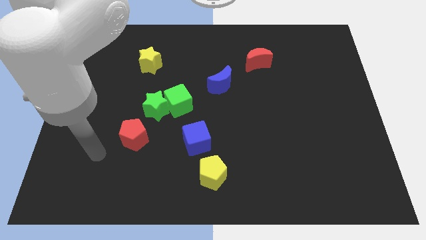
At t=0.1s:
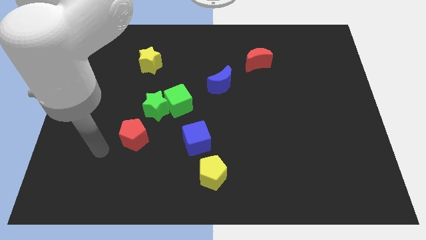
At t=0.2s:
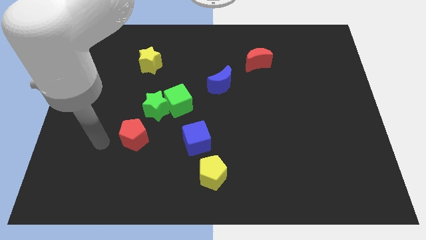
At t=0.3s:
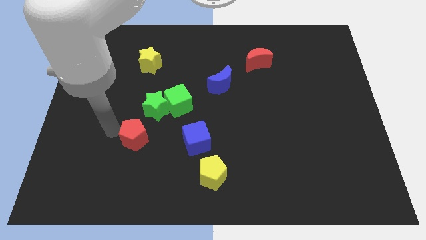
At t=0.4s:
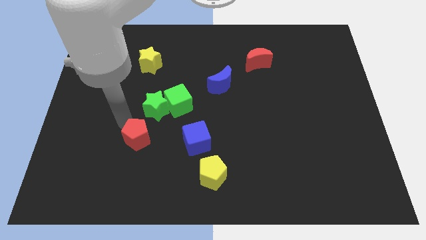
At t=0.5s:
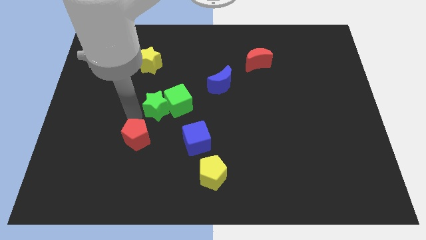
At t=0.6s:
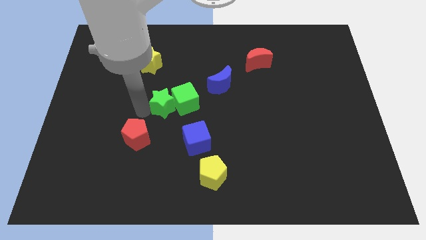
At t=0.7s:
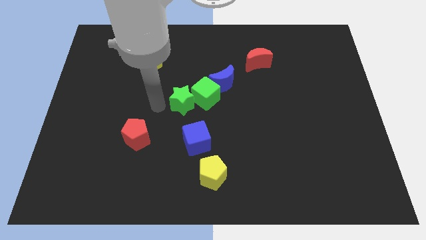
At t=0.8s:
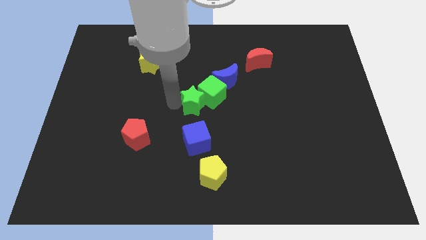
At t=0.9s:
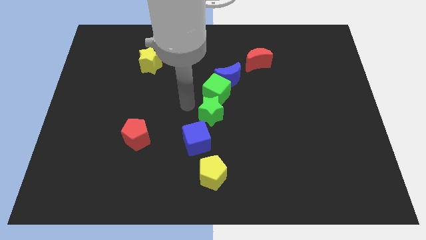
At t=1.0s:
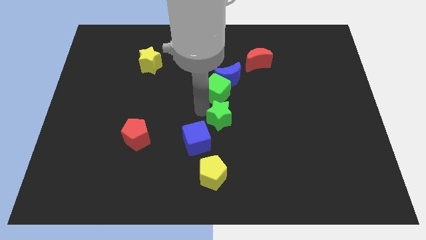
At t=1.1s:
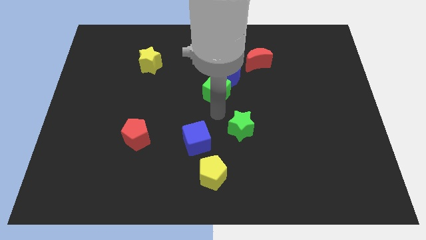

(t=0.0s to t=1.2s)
separate the green cube from the green star

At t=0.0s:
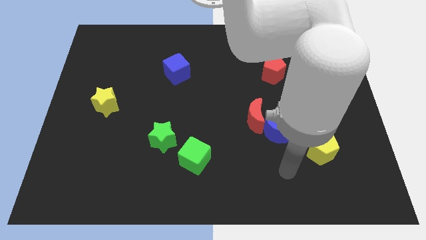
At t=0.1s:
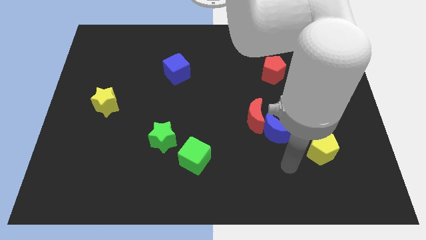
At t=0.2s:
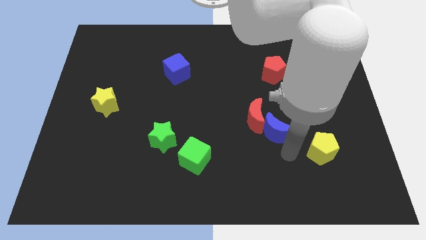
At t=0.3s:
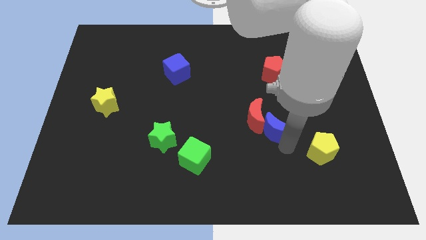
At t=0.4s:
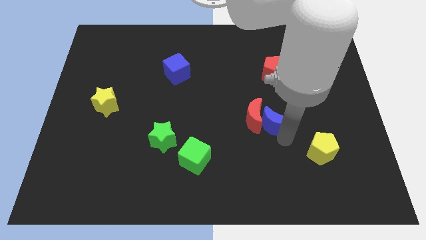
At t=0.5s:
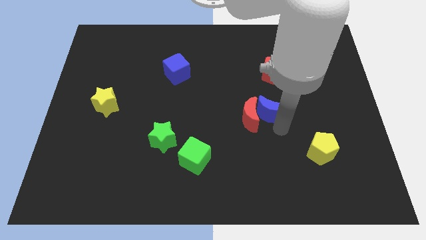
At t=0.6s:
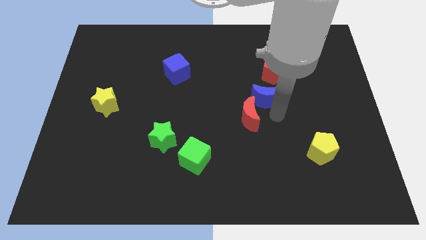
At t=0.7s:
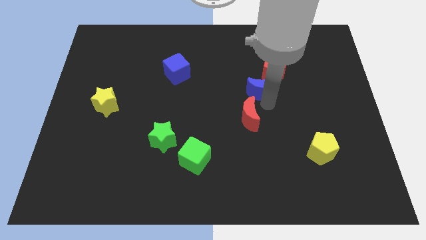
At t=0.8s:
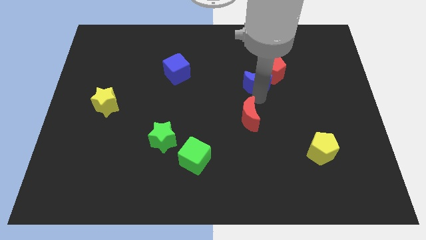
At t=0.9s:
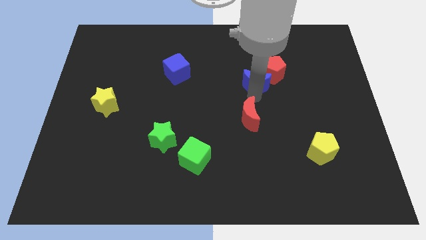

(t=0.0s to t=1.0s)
separate the red moon from the blue moon

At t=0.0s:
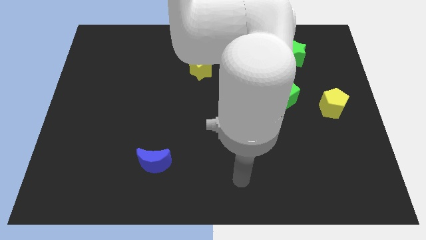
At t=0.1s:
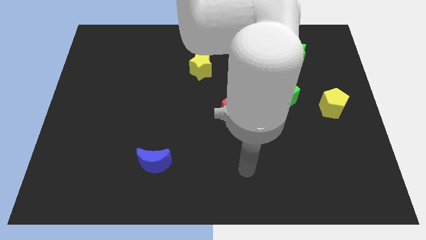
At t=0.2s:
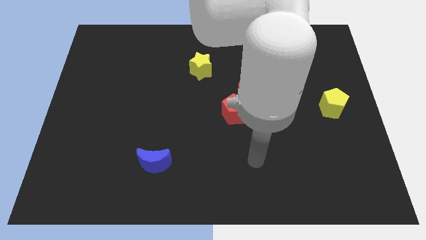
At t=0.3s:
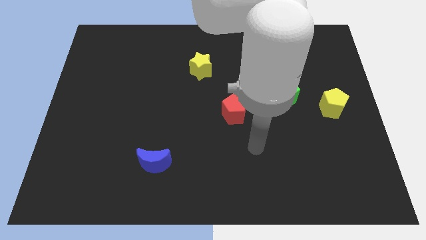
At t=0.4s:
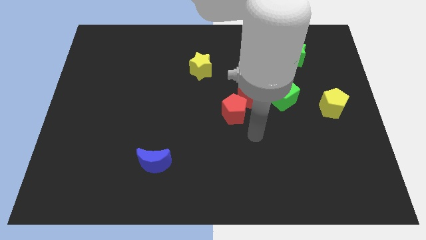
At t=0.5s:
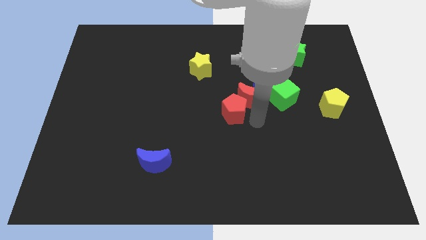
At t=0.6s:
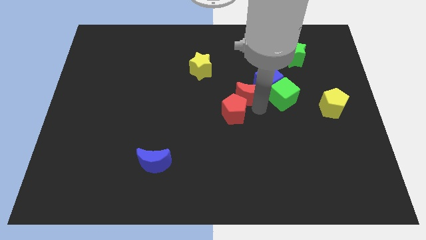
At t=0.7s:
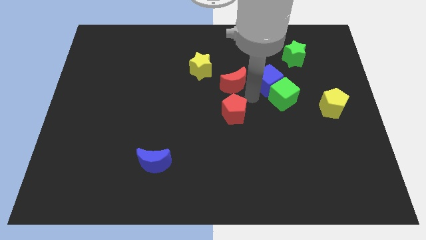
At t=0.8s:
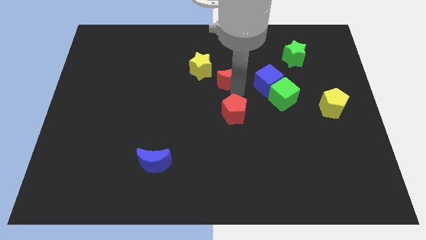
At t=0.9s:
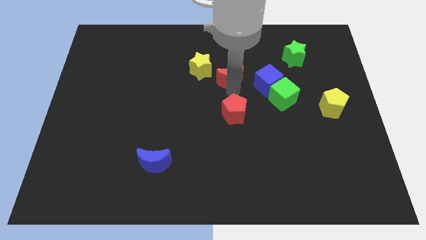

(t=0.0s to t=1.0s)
move the red pentagon away from the red moon

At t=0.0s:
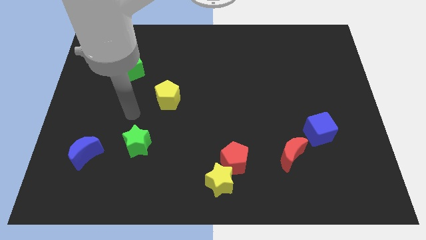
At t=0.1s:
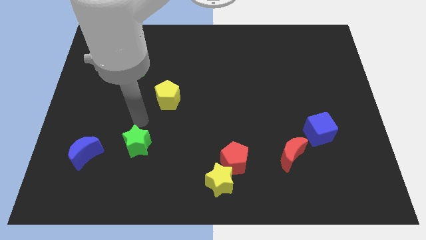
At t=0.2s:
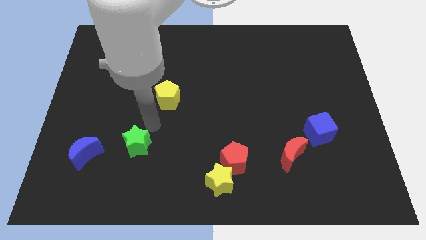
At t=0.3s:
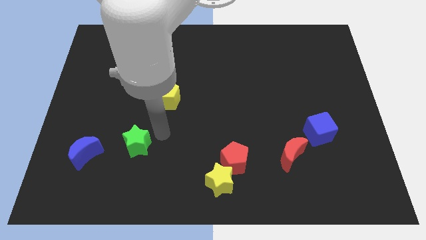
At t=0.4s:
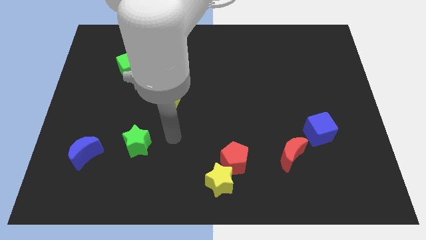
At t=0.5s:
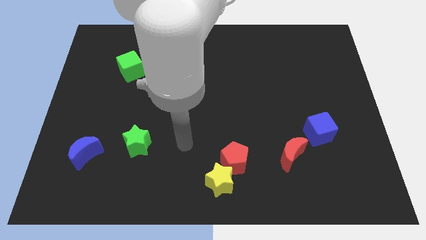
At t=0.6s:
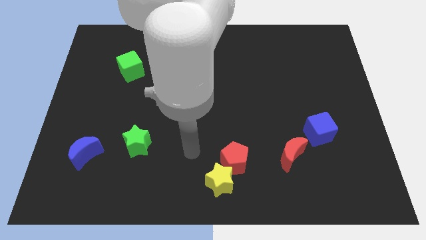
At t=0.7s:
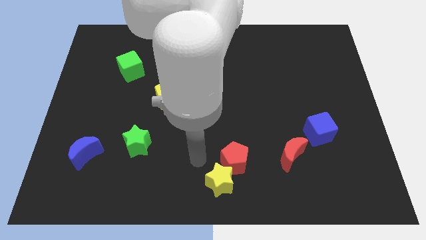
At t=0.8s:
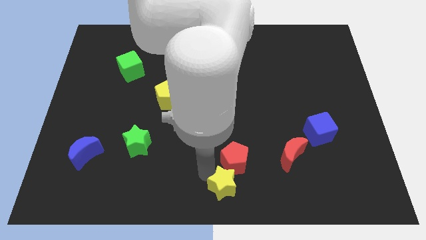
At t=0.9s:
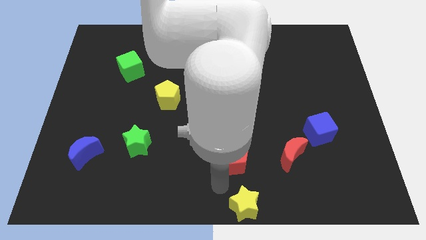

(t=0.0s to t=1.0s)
move the red pentagon away from the yellow star

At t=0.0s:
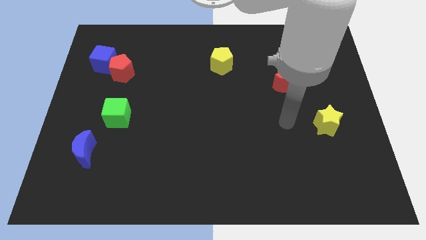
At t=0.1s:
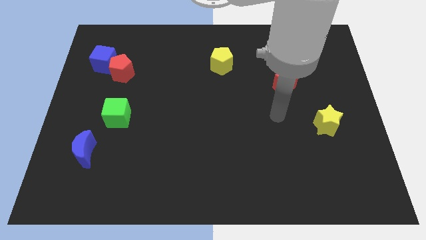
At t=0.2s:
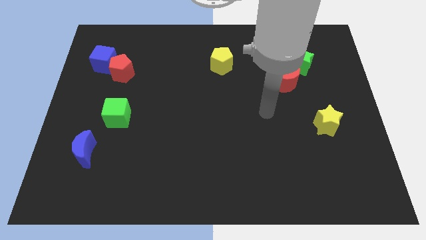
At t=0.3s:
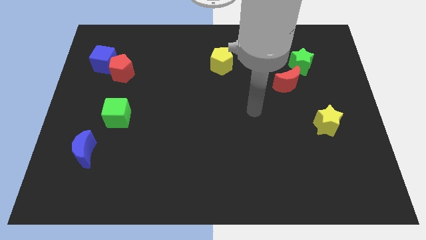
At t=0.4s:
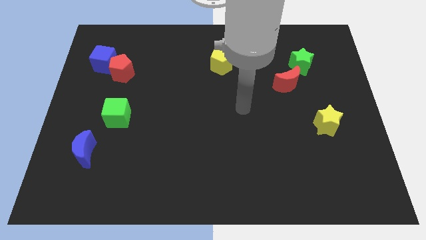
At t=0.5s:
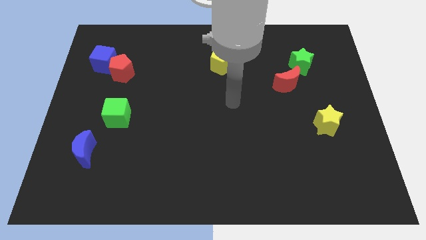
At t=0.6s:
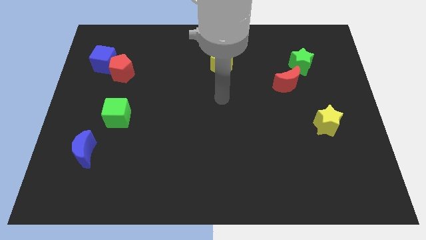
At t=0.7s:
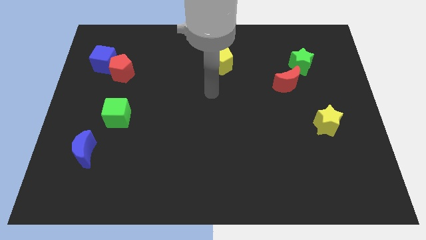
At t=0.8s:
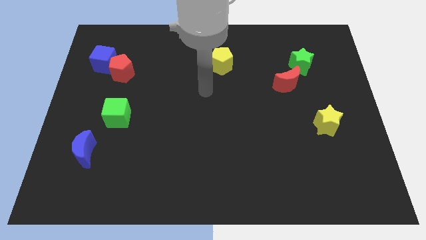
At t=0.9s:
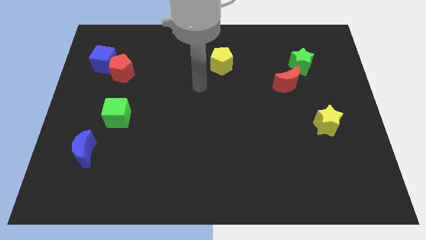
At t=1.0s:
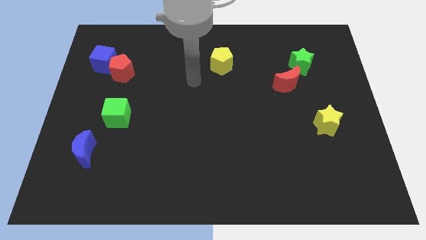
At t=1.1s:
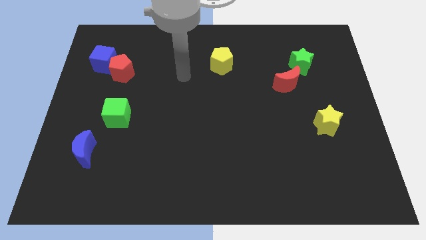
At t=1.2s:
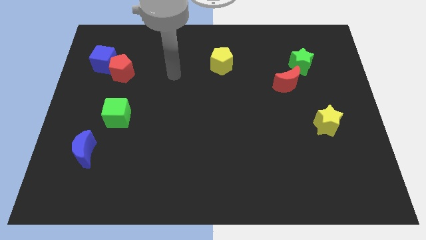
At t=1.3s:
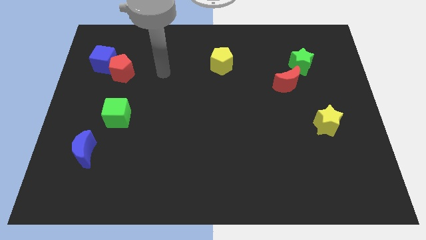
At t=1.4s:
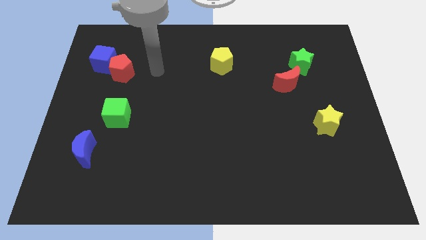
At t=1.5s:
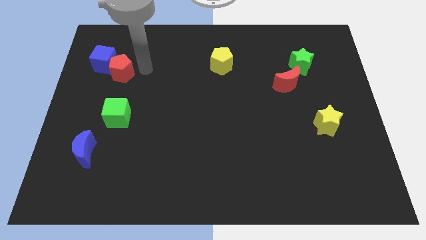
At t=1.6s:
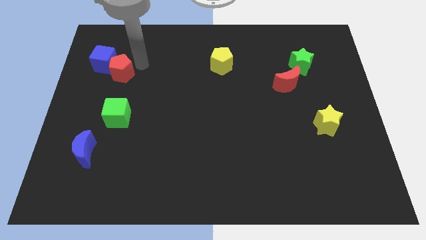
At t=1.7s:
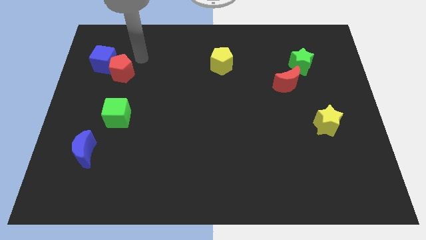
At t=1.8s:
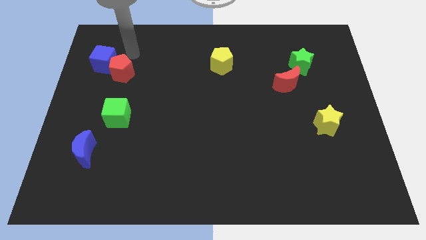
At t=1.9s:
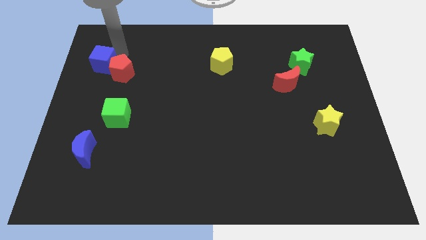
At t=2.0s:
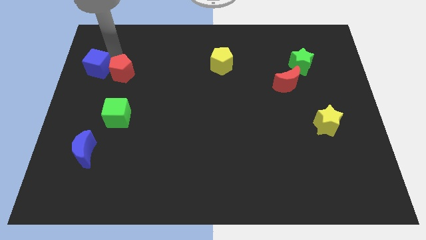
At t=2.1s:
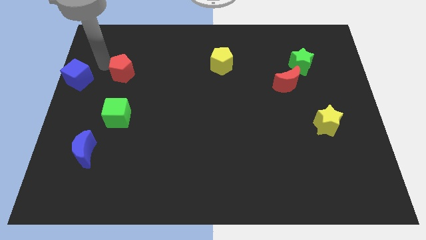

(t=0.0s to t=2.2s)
pull the red pentagon apart from the blue cube

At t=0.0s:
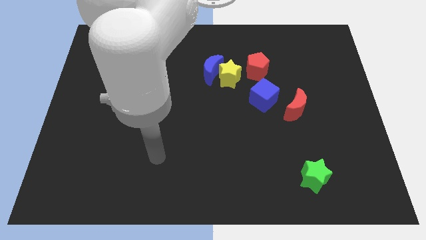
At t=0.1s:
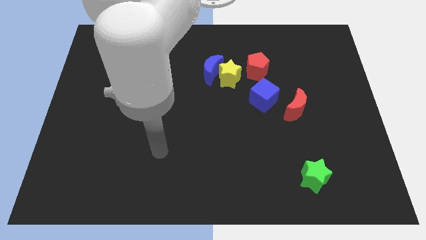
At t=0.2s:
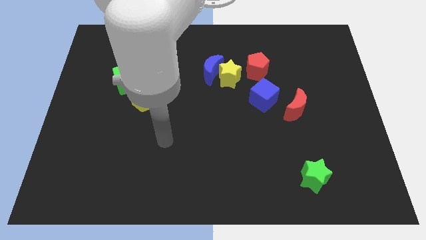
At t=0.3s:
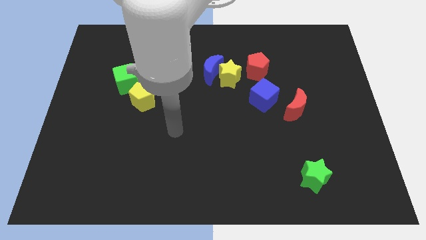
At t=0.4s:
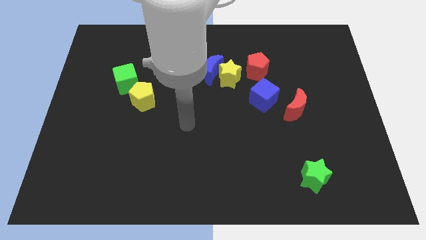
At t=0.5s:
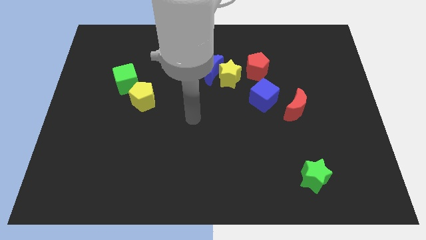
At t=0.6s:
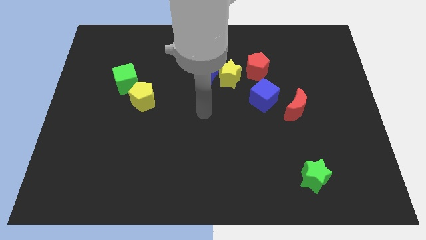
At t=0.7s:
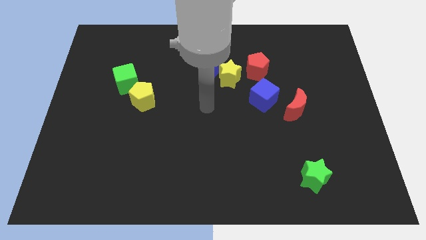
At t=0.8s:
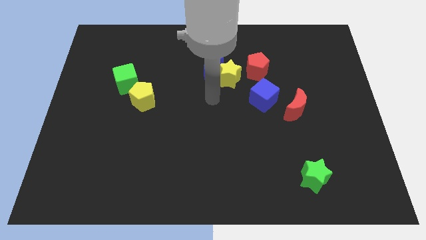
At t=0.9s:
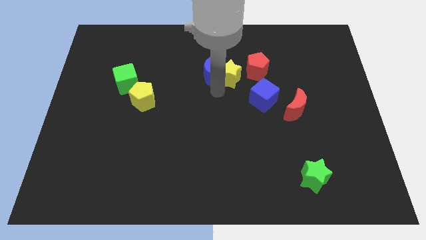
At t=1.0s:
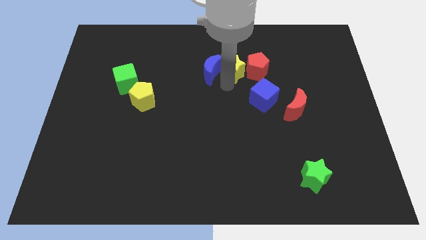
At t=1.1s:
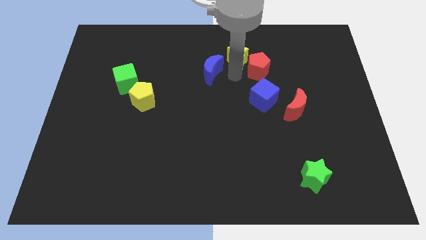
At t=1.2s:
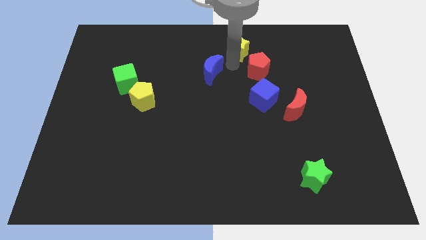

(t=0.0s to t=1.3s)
separate the blue moon from the yellow star

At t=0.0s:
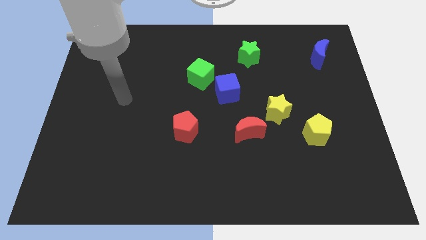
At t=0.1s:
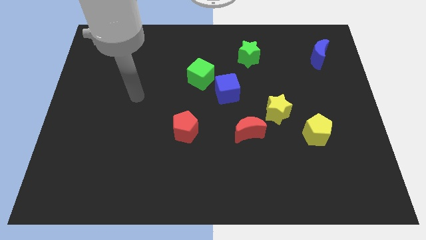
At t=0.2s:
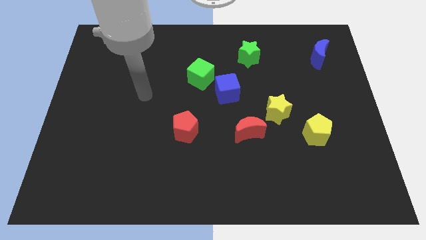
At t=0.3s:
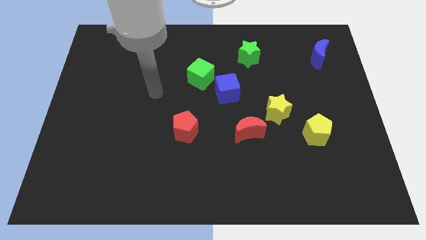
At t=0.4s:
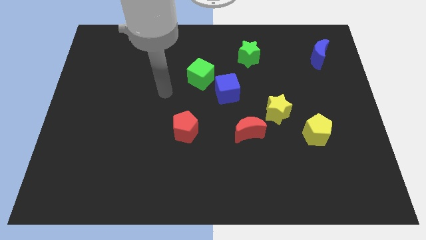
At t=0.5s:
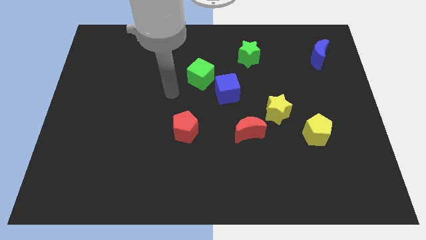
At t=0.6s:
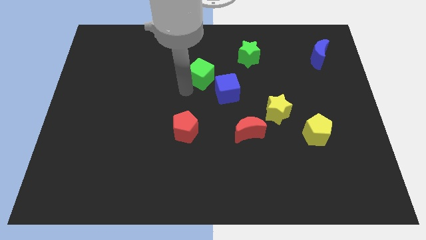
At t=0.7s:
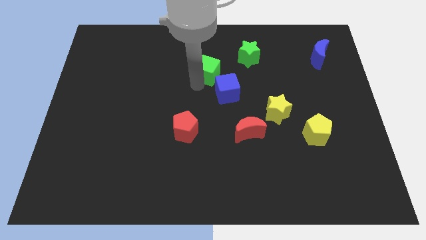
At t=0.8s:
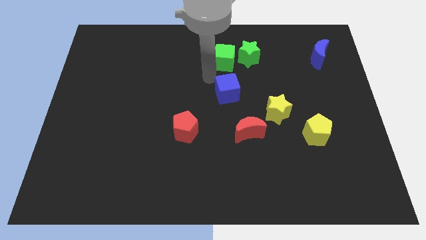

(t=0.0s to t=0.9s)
separate the blue cube from the green cube

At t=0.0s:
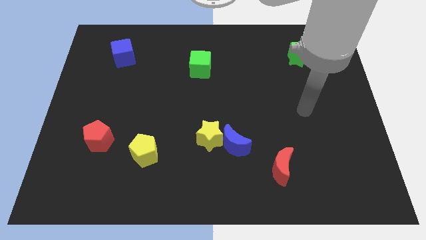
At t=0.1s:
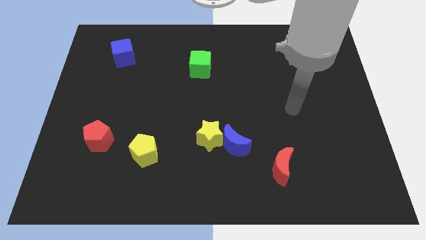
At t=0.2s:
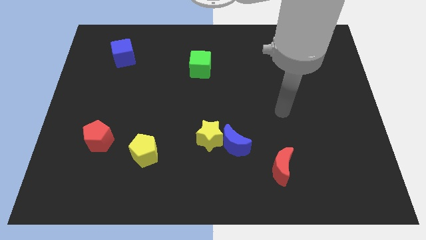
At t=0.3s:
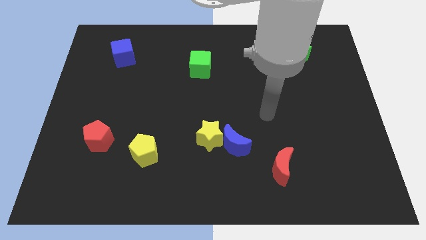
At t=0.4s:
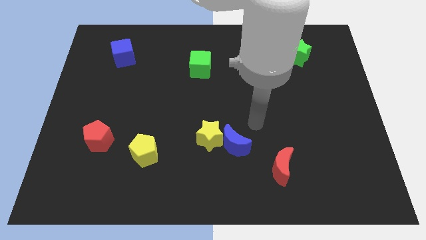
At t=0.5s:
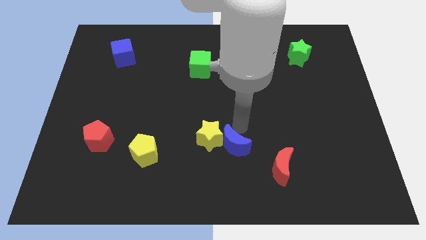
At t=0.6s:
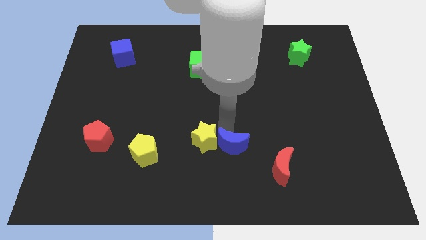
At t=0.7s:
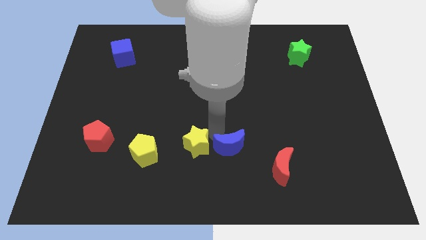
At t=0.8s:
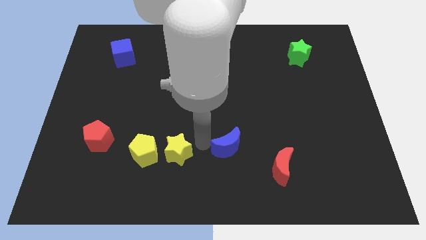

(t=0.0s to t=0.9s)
pull the blue moon apart from the yellow star
